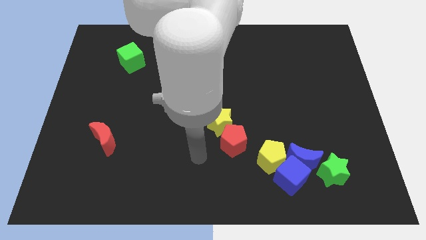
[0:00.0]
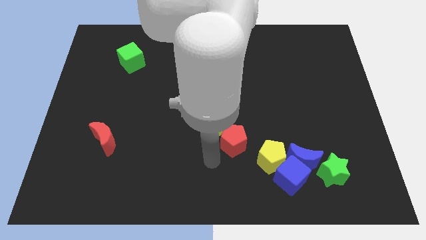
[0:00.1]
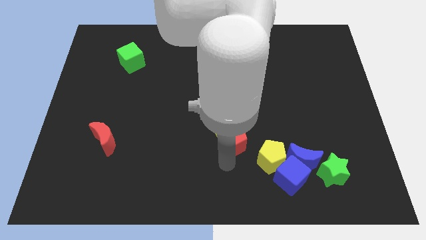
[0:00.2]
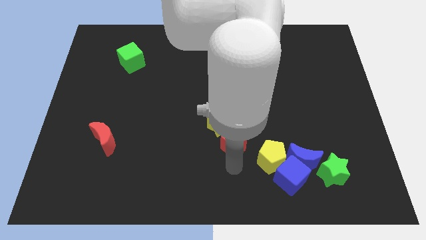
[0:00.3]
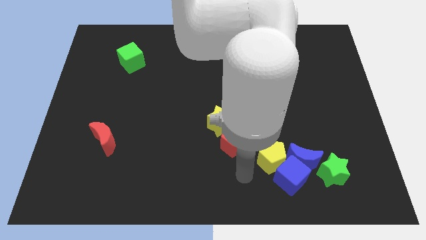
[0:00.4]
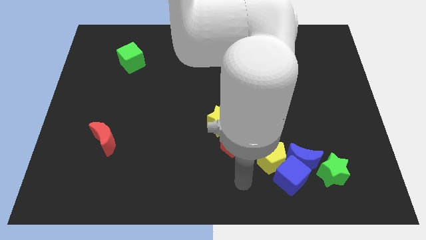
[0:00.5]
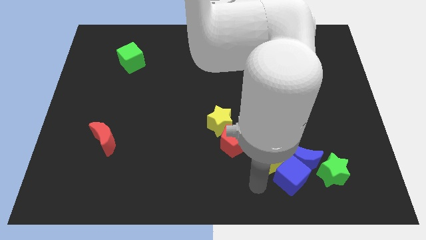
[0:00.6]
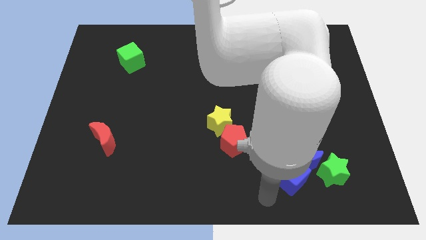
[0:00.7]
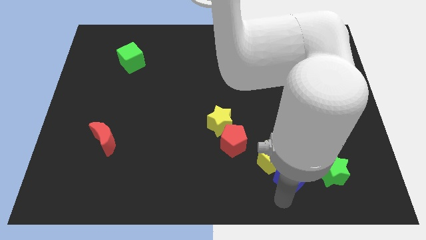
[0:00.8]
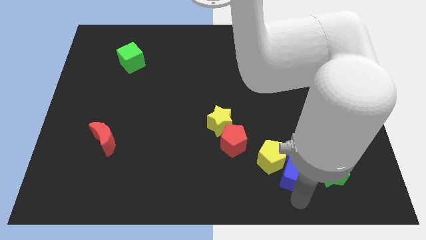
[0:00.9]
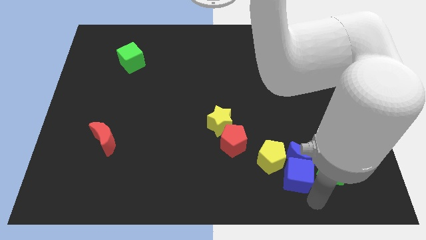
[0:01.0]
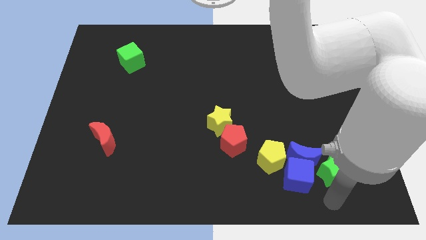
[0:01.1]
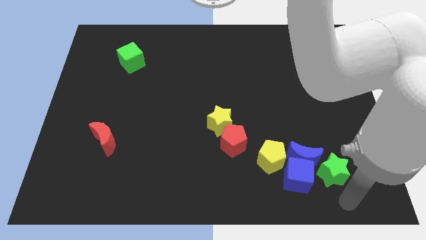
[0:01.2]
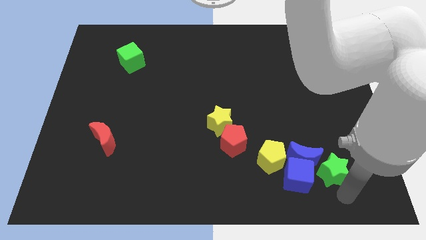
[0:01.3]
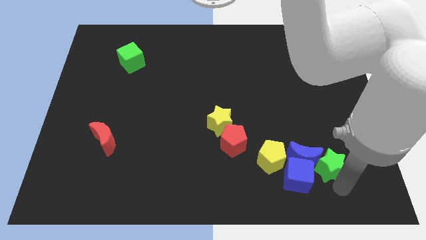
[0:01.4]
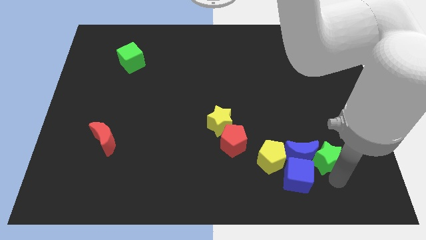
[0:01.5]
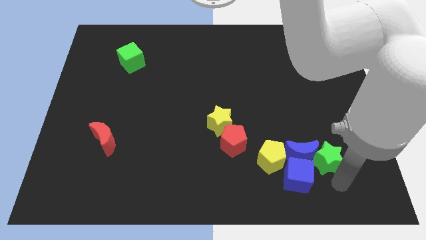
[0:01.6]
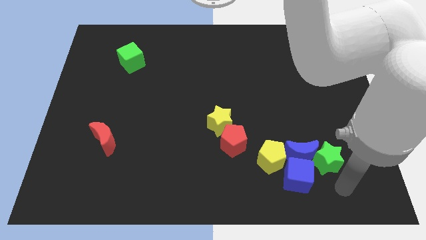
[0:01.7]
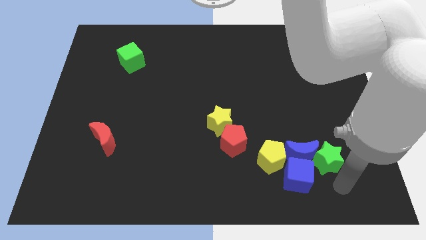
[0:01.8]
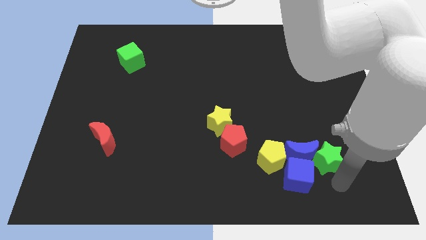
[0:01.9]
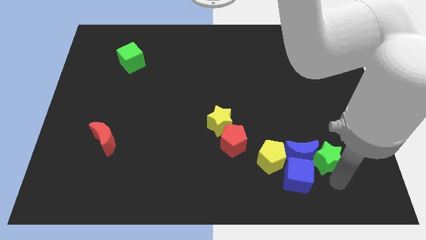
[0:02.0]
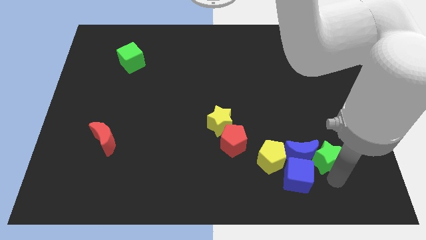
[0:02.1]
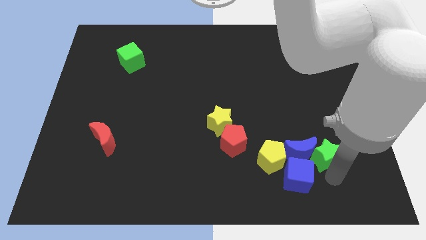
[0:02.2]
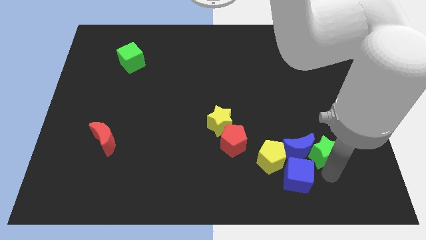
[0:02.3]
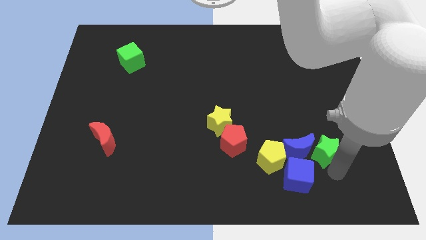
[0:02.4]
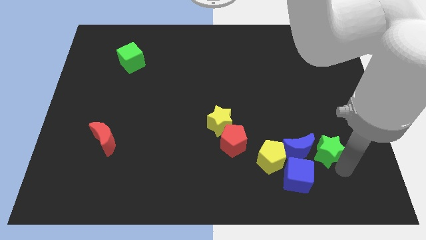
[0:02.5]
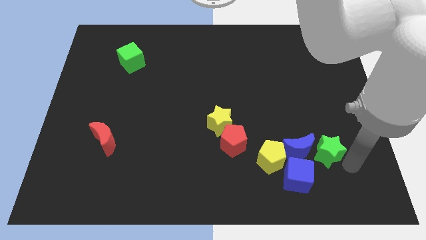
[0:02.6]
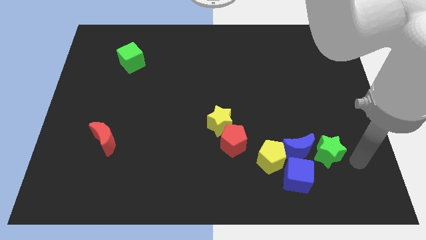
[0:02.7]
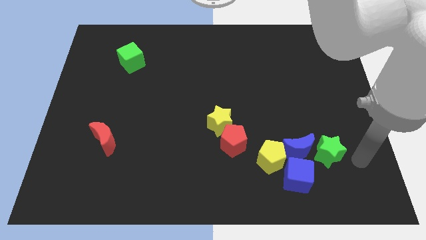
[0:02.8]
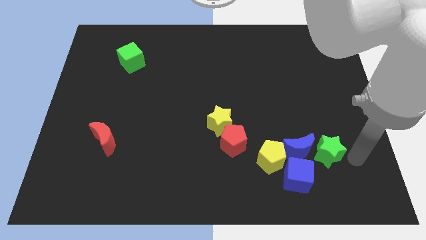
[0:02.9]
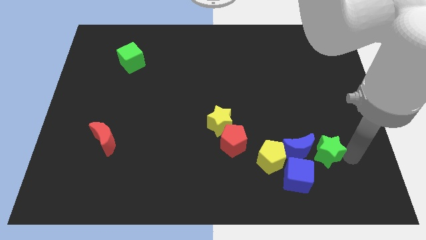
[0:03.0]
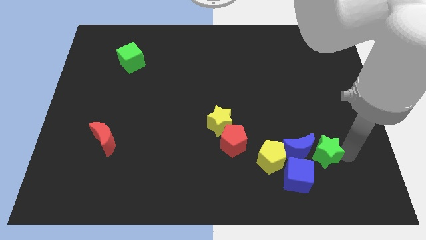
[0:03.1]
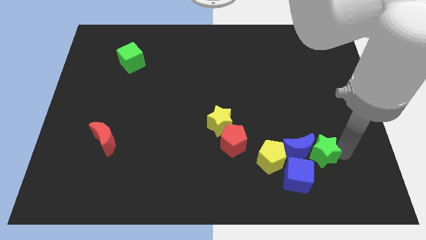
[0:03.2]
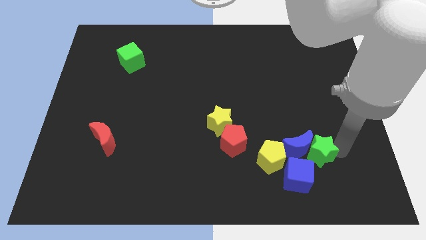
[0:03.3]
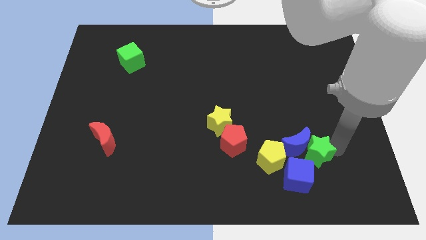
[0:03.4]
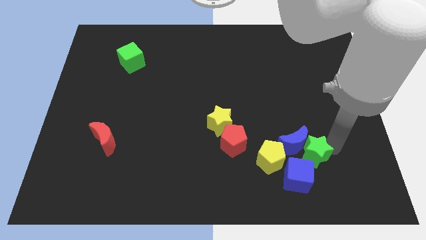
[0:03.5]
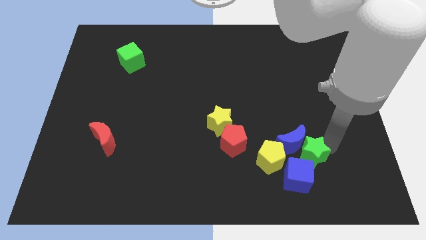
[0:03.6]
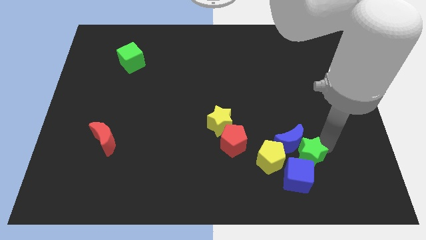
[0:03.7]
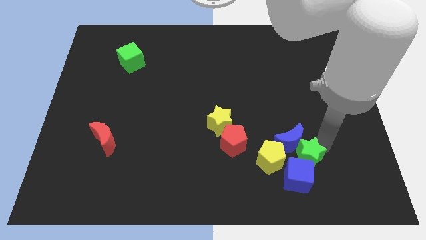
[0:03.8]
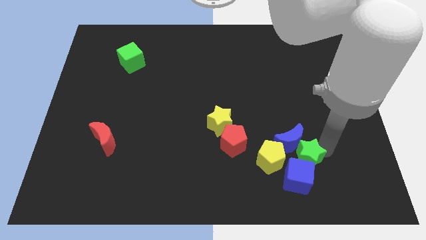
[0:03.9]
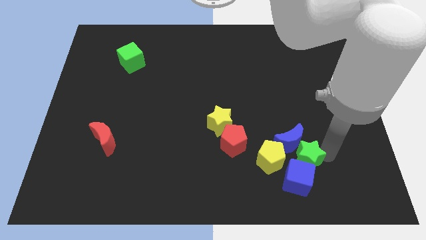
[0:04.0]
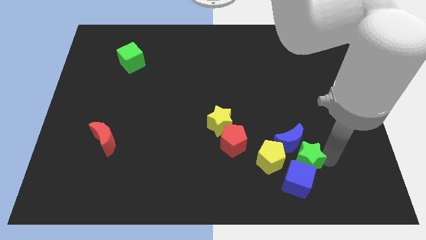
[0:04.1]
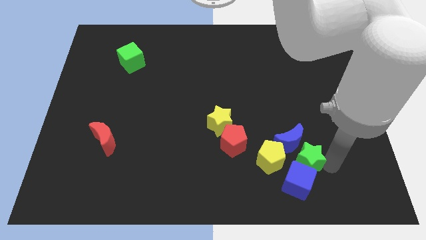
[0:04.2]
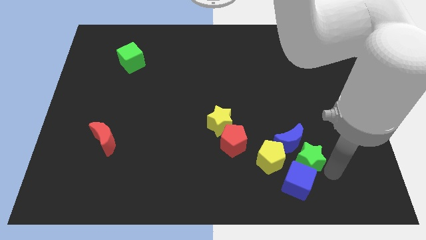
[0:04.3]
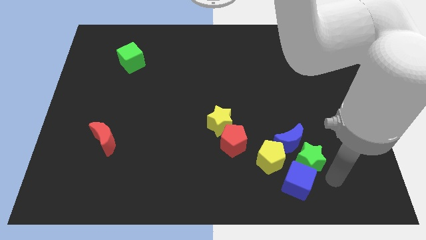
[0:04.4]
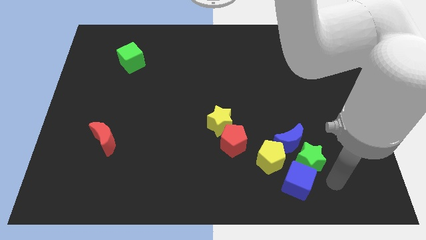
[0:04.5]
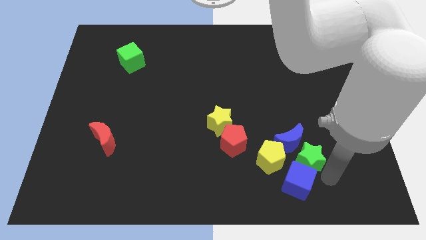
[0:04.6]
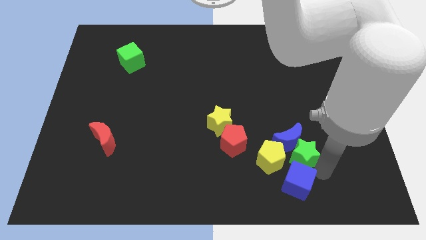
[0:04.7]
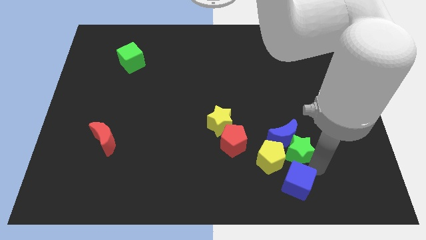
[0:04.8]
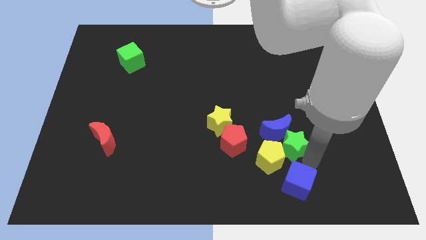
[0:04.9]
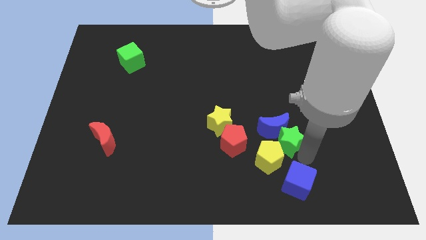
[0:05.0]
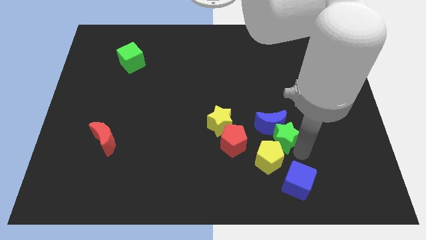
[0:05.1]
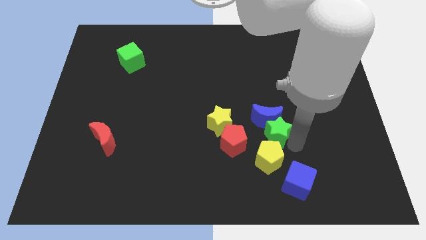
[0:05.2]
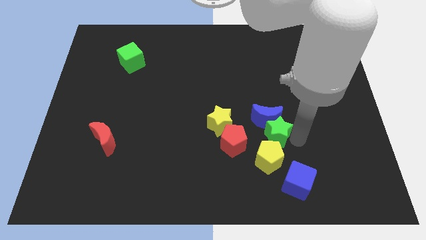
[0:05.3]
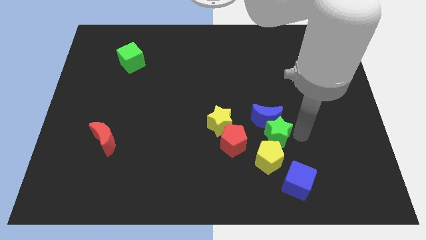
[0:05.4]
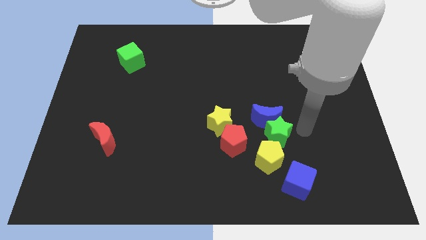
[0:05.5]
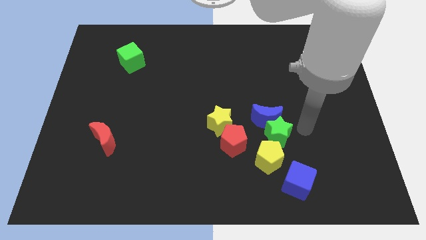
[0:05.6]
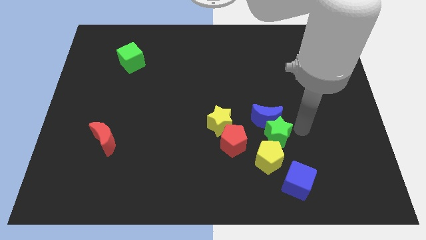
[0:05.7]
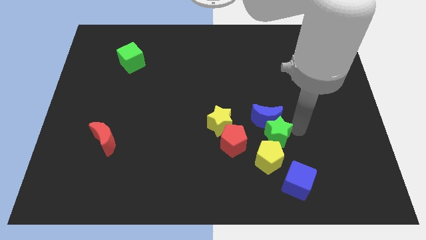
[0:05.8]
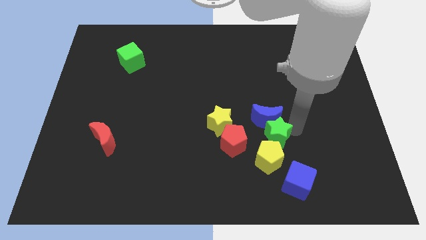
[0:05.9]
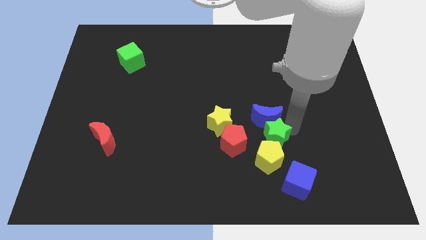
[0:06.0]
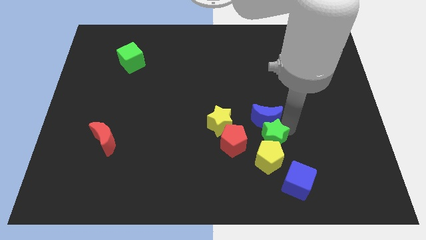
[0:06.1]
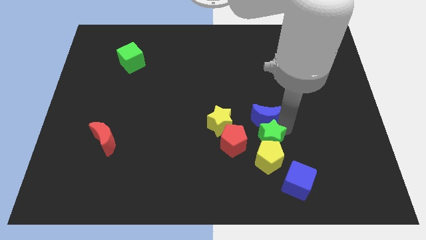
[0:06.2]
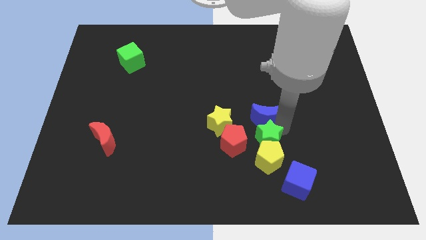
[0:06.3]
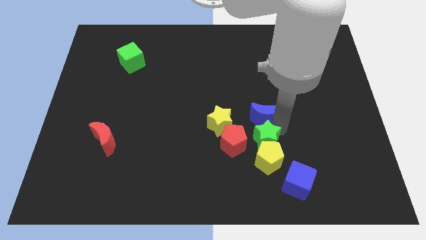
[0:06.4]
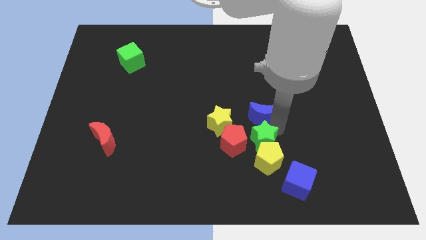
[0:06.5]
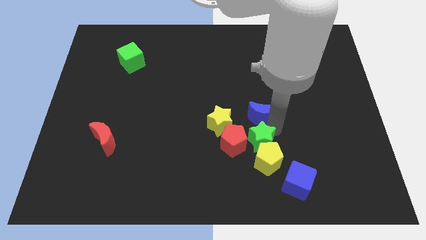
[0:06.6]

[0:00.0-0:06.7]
push the green star to the red pentagon
